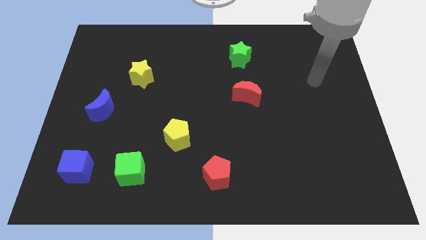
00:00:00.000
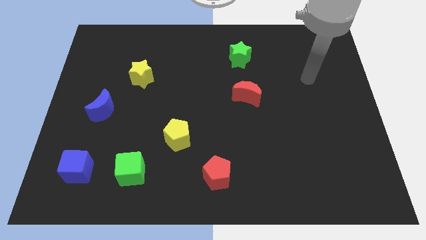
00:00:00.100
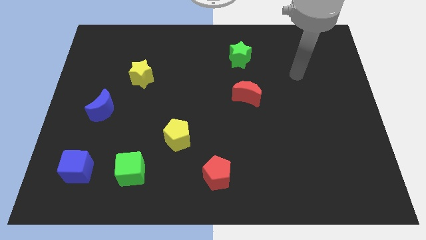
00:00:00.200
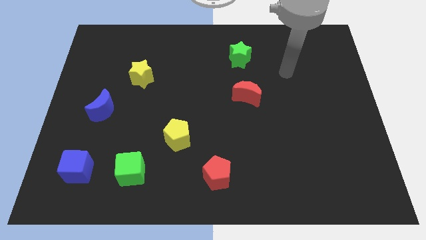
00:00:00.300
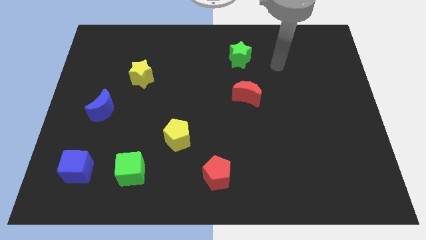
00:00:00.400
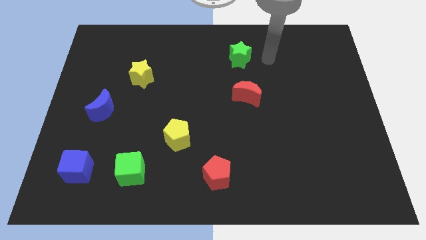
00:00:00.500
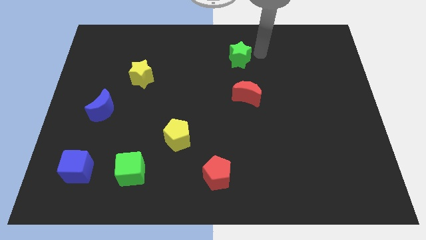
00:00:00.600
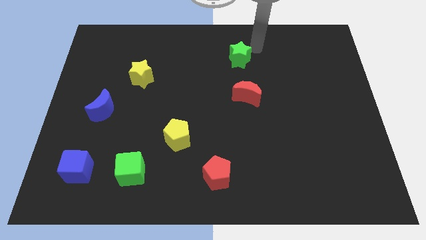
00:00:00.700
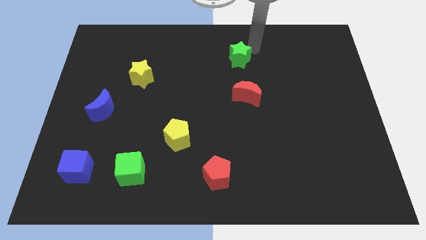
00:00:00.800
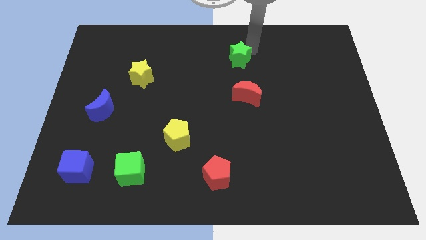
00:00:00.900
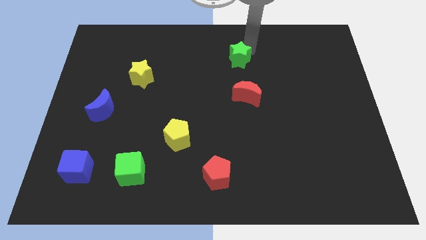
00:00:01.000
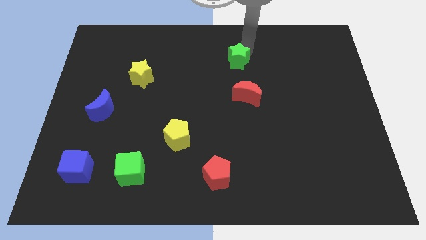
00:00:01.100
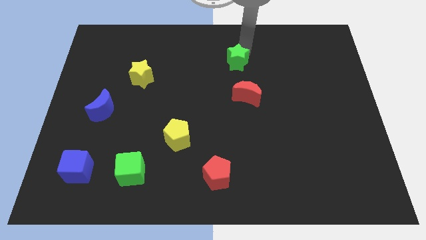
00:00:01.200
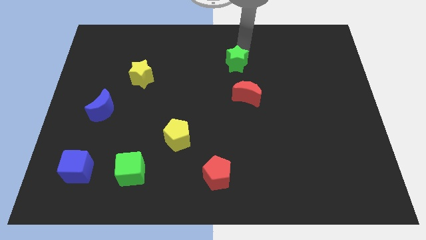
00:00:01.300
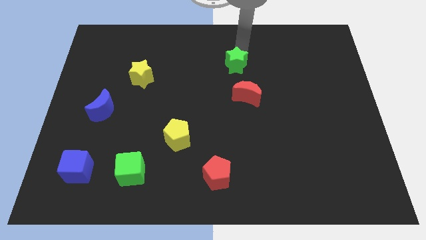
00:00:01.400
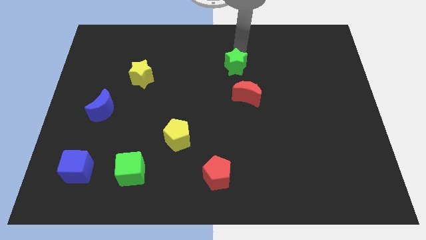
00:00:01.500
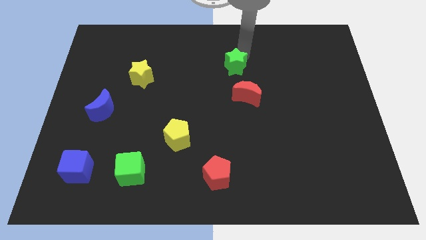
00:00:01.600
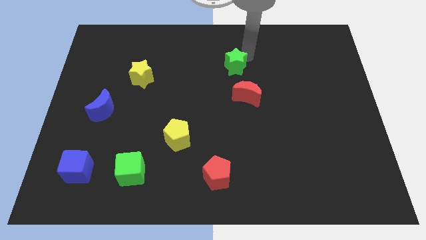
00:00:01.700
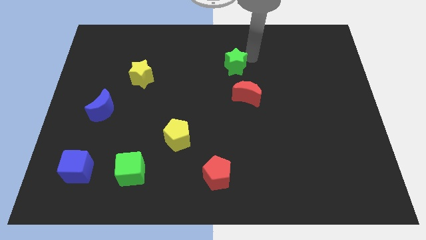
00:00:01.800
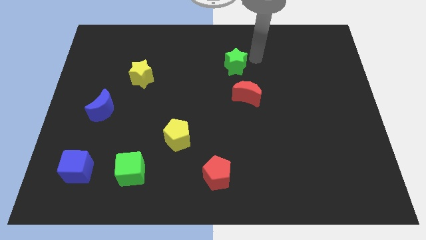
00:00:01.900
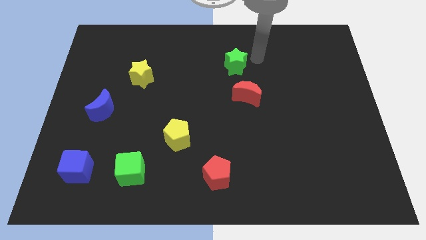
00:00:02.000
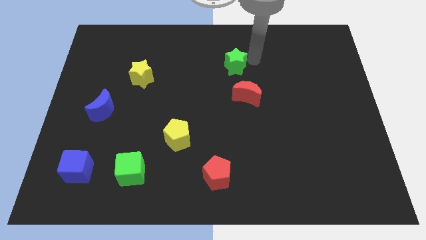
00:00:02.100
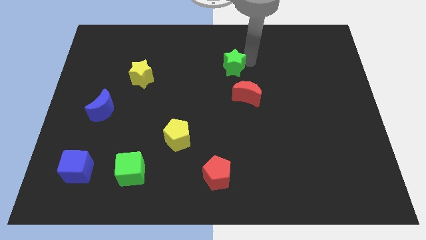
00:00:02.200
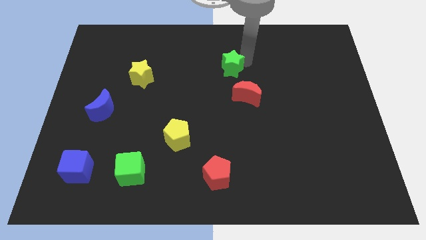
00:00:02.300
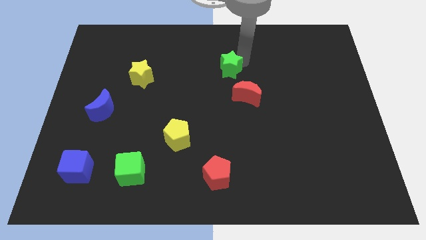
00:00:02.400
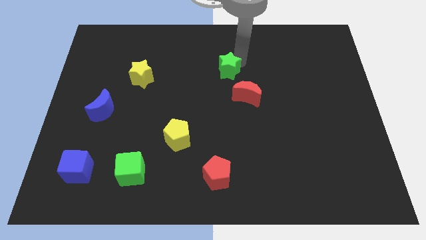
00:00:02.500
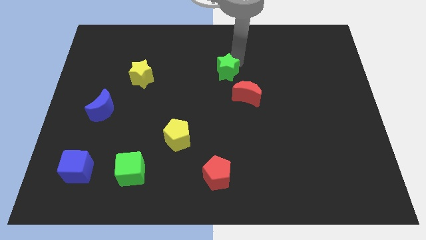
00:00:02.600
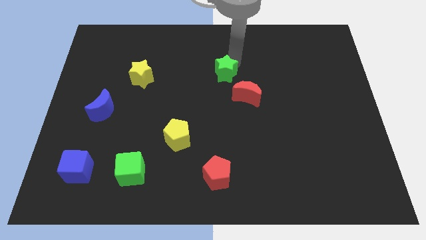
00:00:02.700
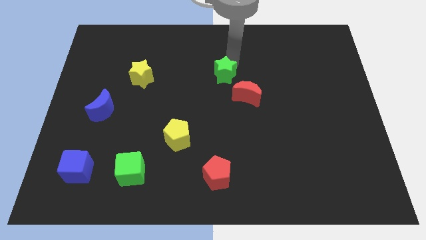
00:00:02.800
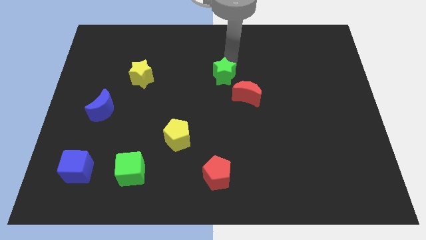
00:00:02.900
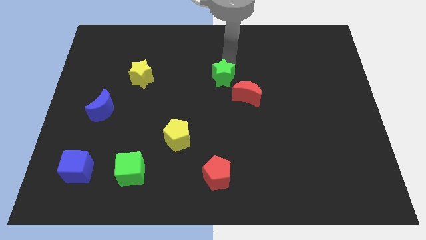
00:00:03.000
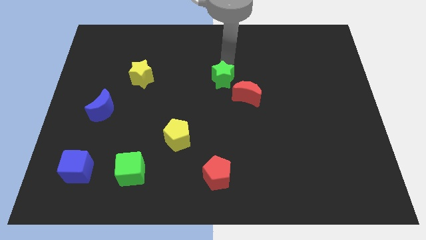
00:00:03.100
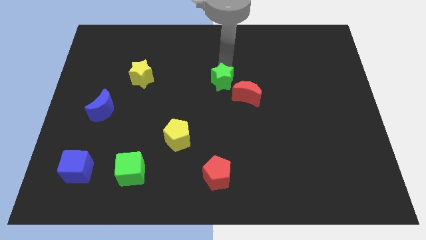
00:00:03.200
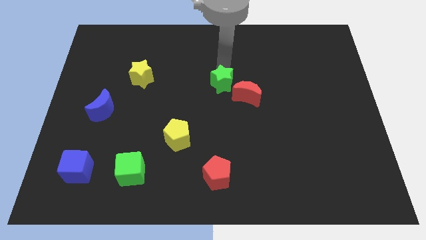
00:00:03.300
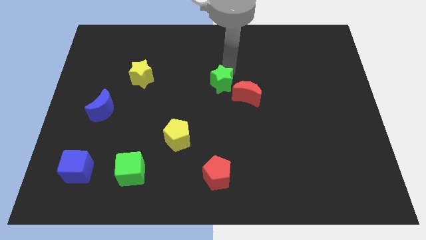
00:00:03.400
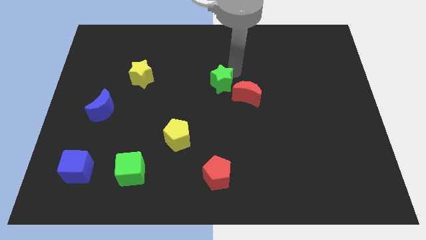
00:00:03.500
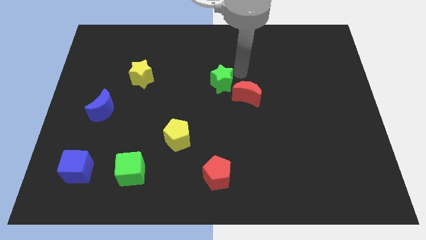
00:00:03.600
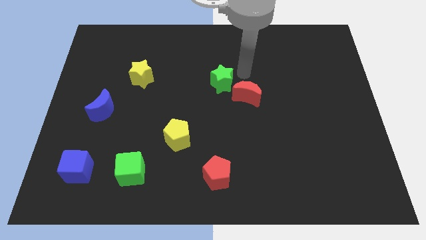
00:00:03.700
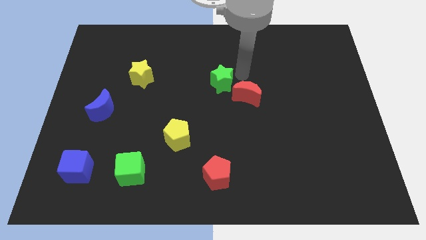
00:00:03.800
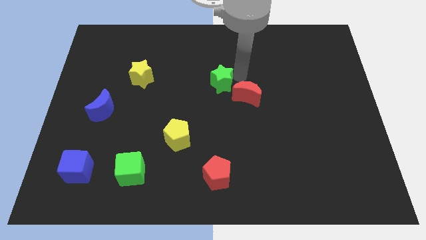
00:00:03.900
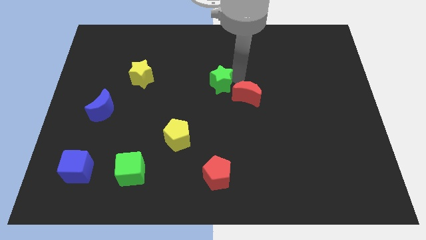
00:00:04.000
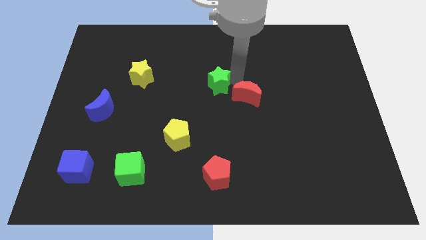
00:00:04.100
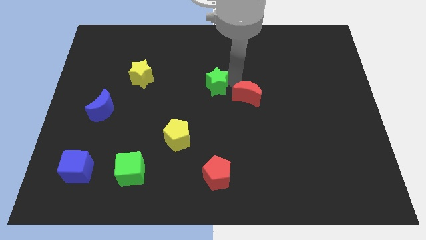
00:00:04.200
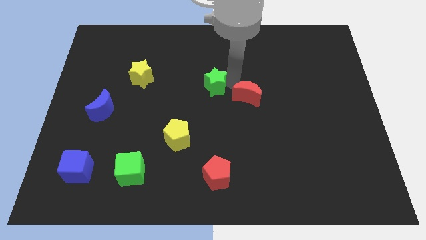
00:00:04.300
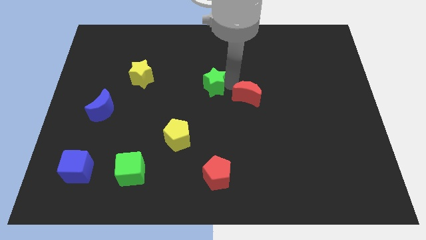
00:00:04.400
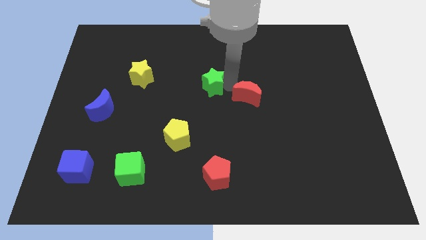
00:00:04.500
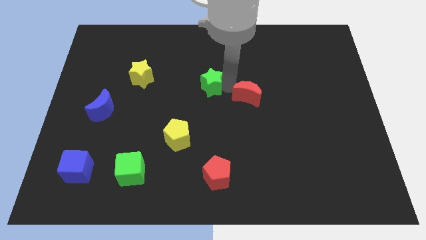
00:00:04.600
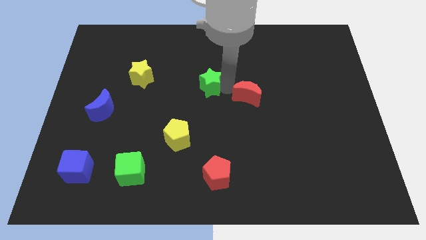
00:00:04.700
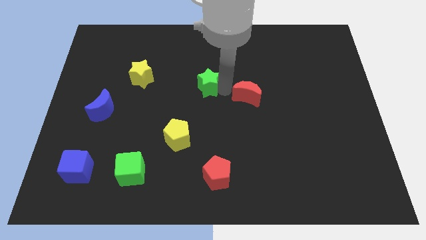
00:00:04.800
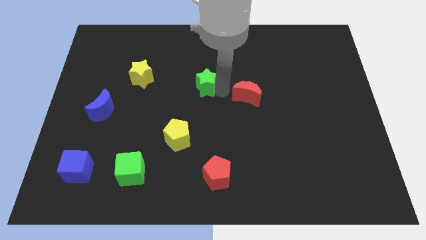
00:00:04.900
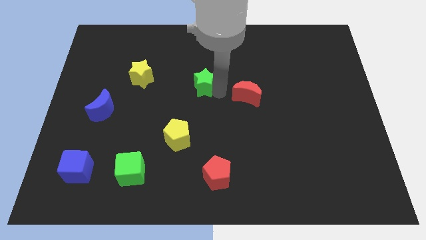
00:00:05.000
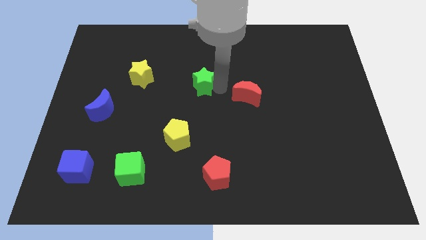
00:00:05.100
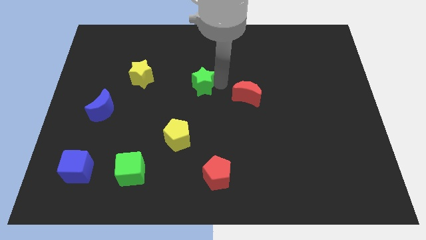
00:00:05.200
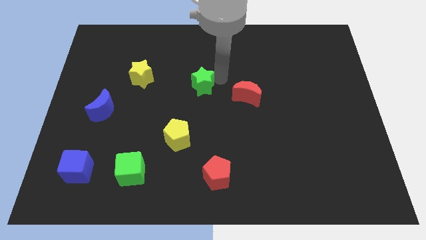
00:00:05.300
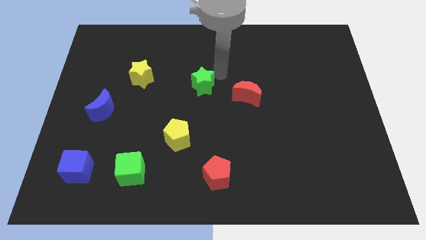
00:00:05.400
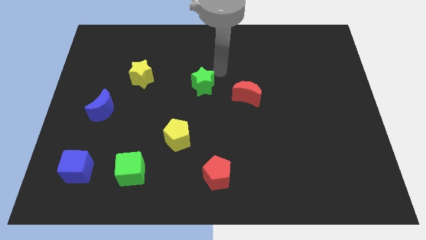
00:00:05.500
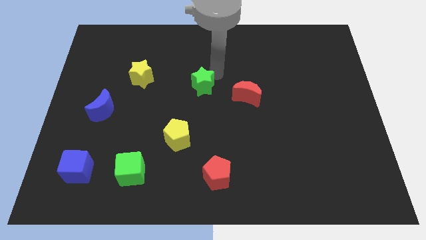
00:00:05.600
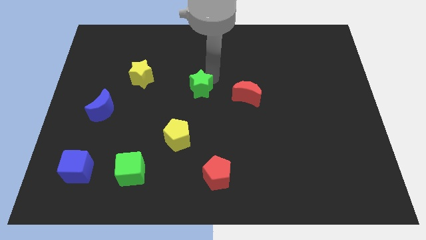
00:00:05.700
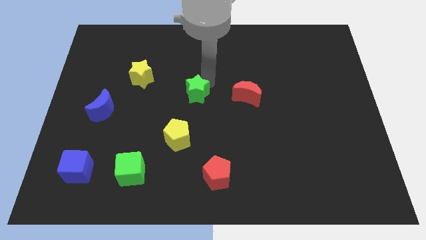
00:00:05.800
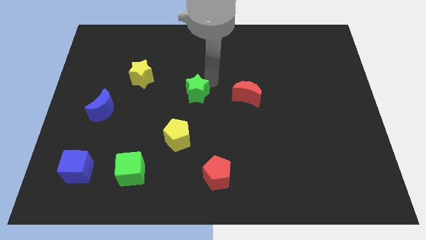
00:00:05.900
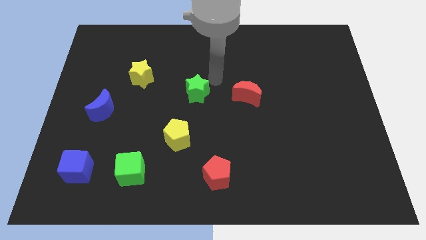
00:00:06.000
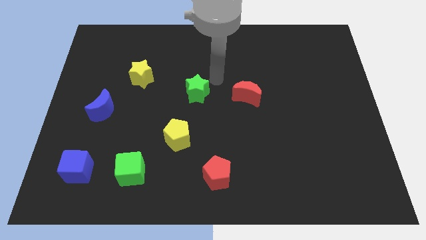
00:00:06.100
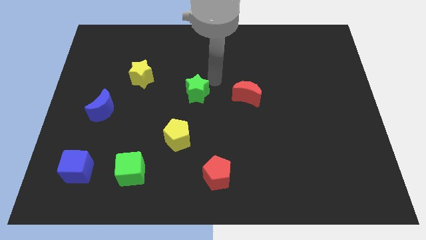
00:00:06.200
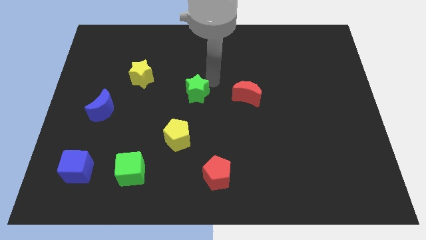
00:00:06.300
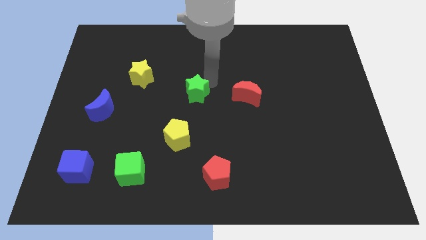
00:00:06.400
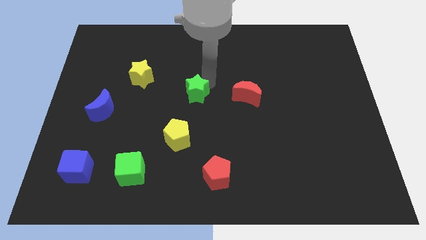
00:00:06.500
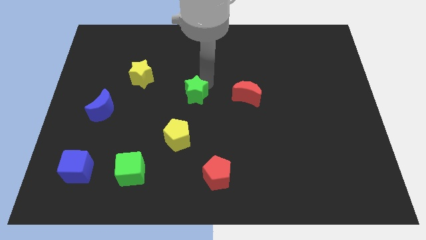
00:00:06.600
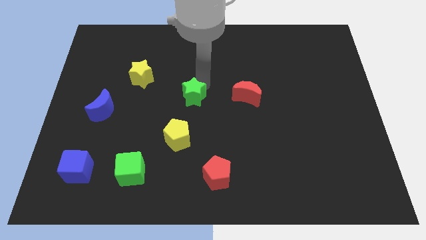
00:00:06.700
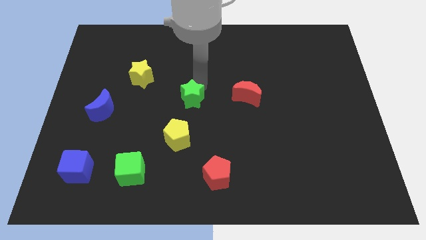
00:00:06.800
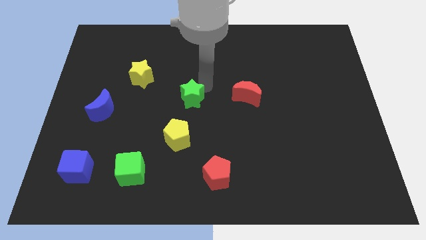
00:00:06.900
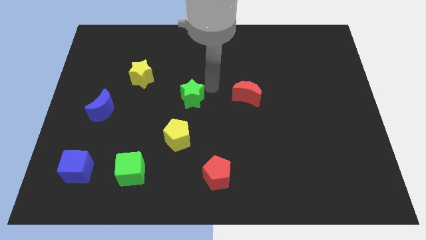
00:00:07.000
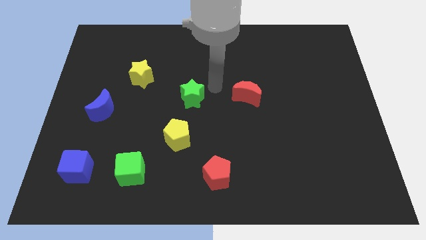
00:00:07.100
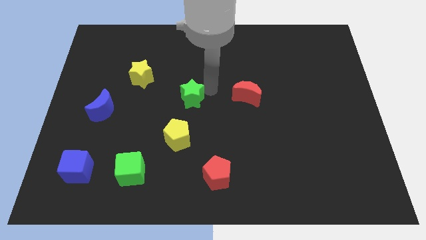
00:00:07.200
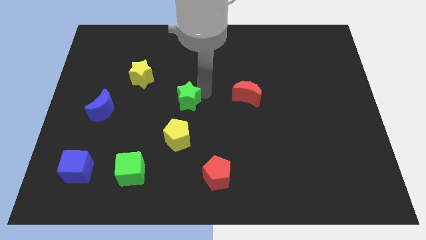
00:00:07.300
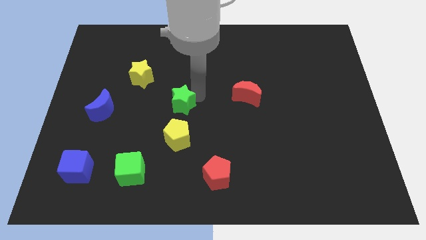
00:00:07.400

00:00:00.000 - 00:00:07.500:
push the green star down and to the left diagonally

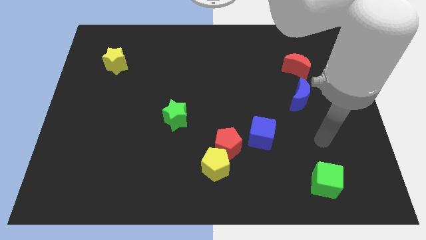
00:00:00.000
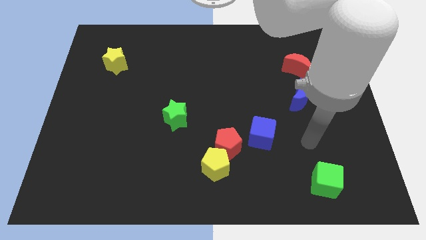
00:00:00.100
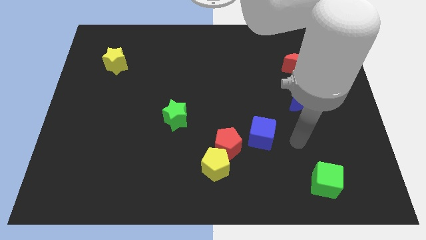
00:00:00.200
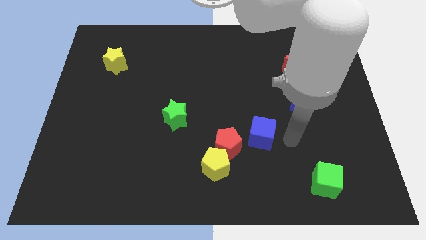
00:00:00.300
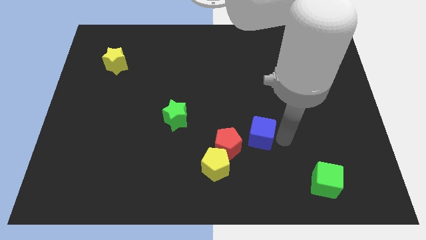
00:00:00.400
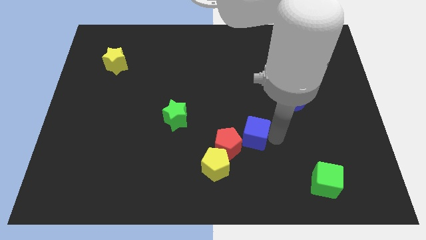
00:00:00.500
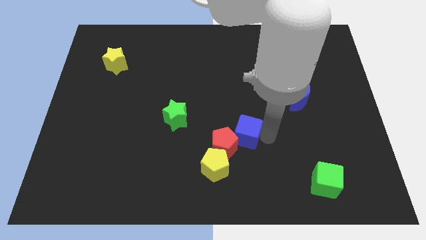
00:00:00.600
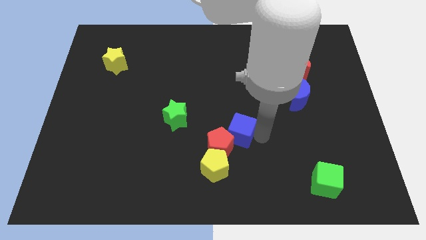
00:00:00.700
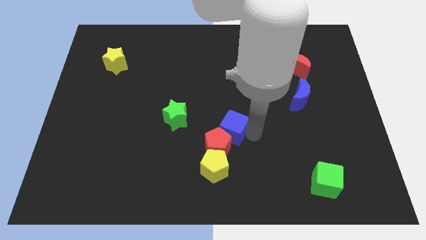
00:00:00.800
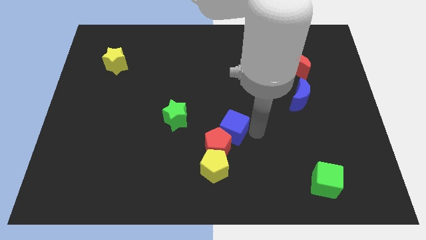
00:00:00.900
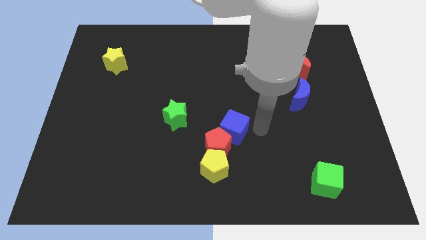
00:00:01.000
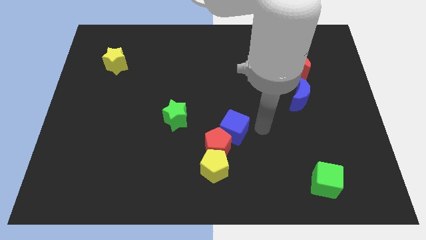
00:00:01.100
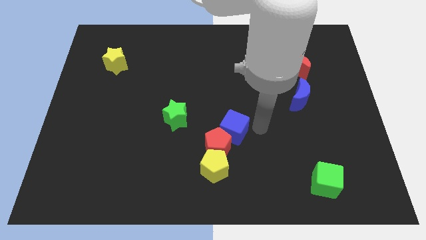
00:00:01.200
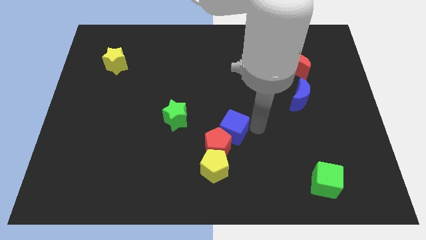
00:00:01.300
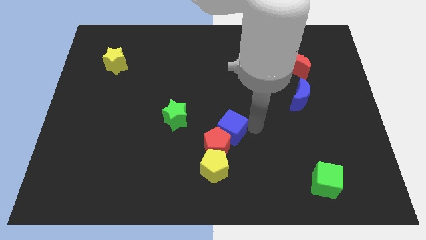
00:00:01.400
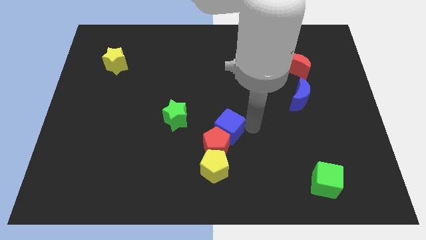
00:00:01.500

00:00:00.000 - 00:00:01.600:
slightly move the blue cube to the left
